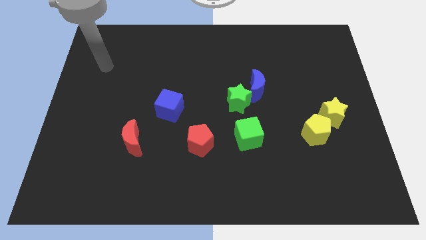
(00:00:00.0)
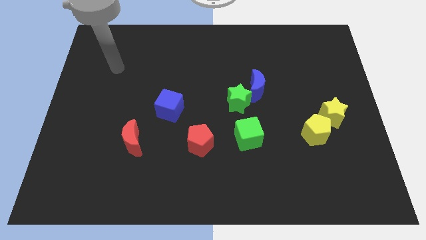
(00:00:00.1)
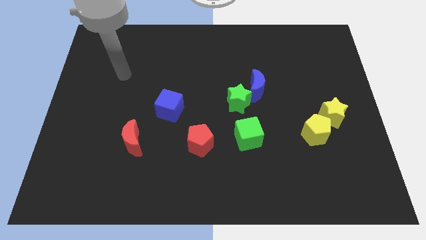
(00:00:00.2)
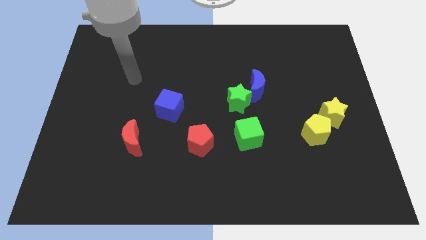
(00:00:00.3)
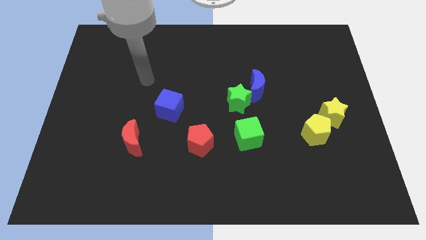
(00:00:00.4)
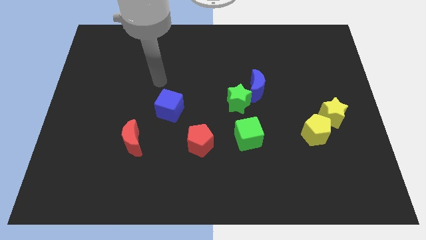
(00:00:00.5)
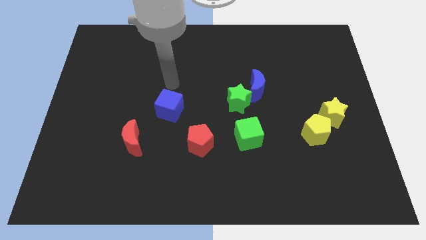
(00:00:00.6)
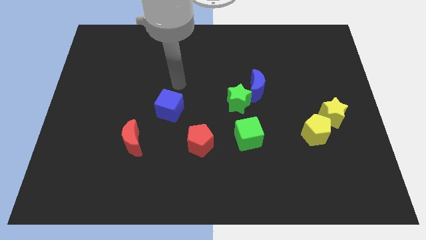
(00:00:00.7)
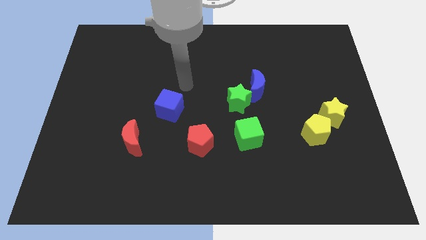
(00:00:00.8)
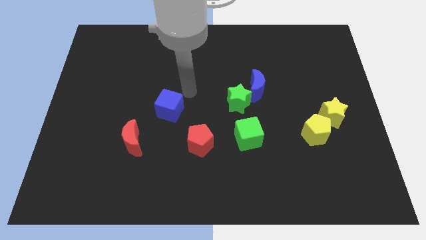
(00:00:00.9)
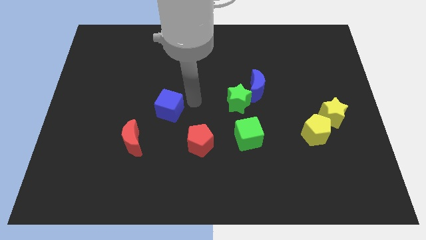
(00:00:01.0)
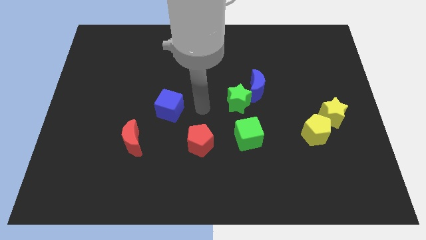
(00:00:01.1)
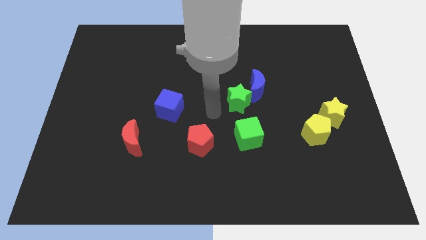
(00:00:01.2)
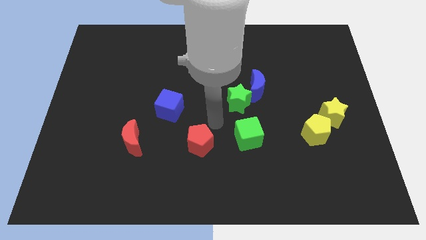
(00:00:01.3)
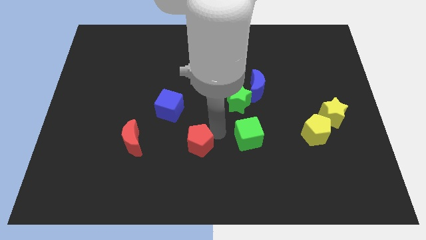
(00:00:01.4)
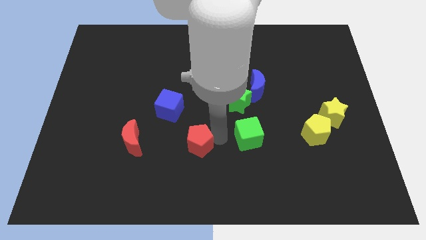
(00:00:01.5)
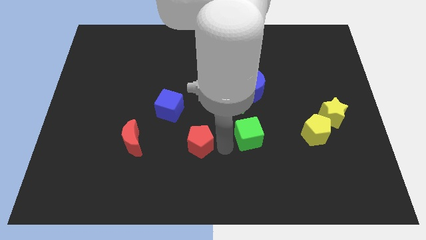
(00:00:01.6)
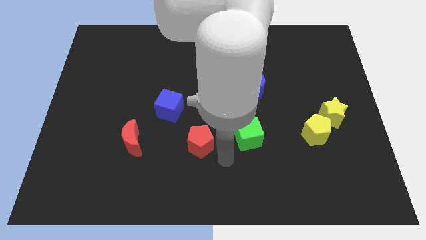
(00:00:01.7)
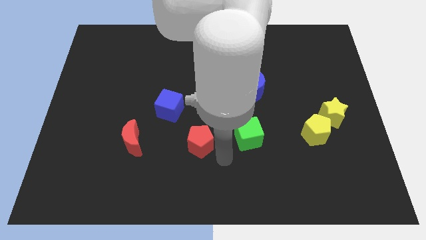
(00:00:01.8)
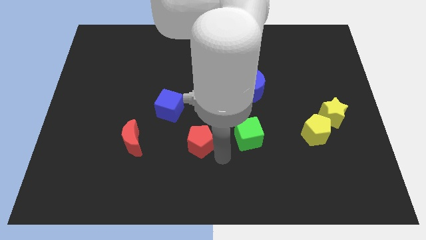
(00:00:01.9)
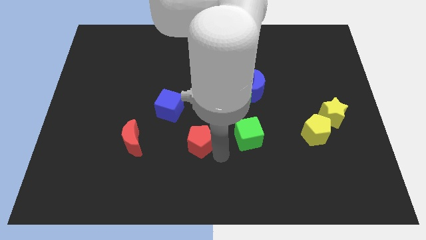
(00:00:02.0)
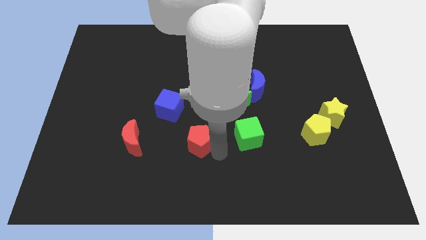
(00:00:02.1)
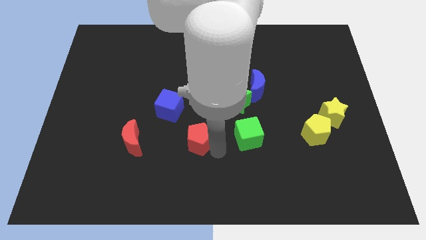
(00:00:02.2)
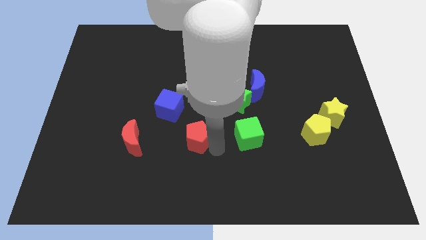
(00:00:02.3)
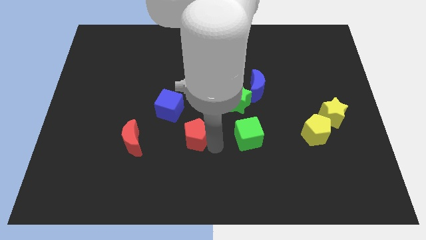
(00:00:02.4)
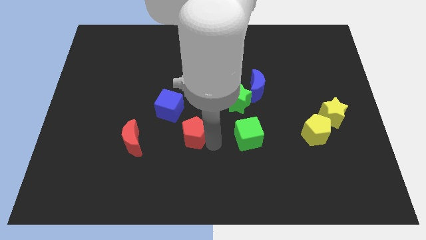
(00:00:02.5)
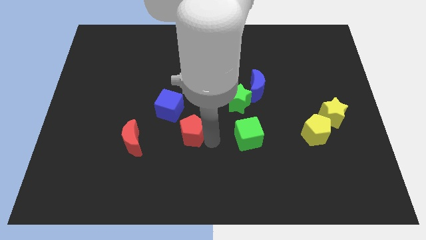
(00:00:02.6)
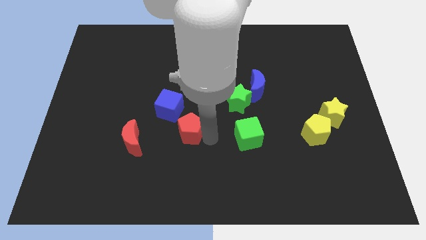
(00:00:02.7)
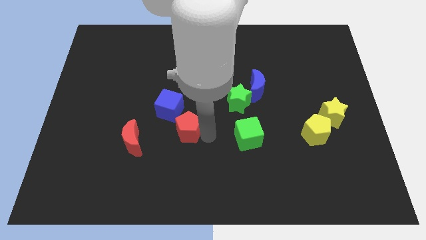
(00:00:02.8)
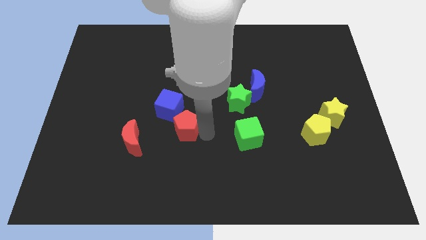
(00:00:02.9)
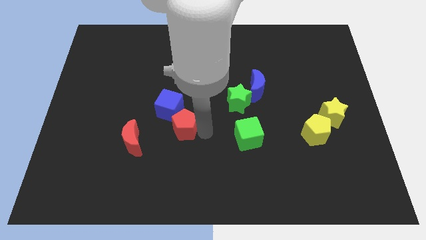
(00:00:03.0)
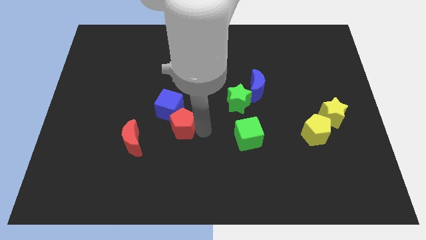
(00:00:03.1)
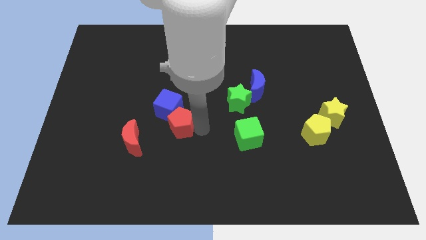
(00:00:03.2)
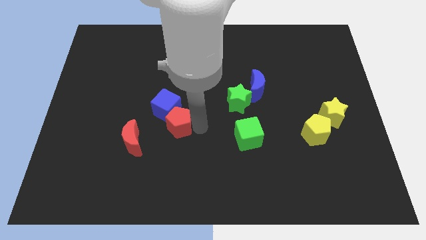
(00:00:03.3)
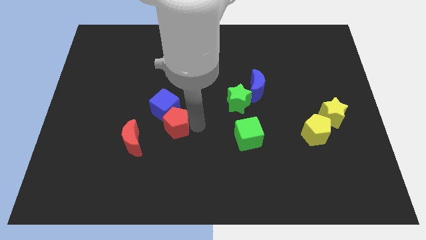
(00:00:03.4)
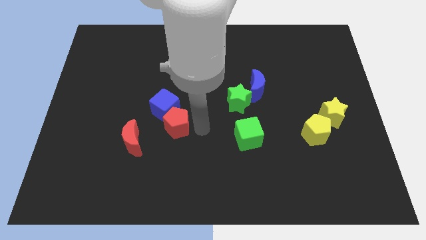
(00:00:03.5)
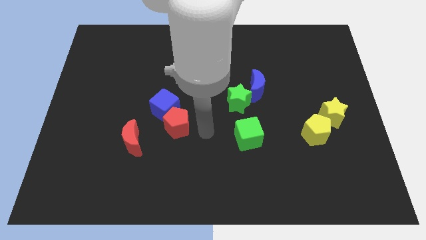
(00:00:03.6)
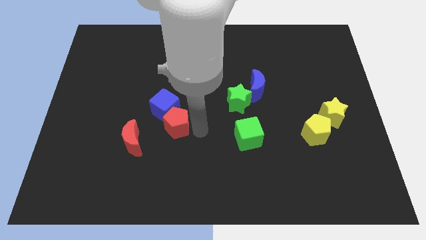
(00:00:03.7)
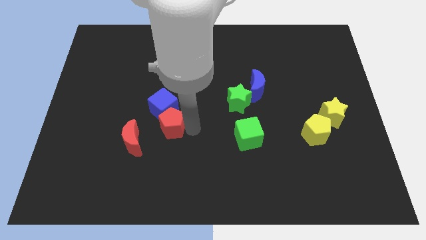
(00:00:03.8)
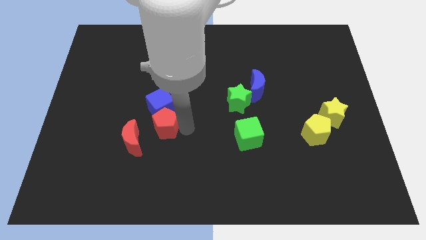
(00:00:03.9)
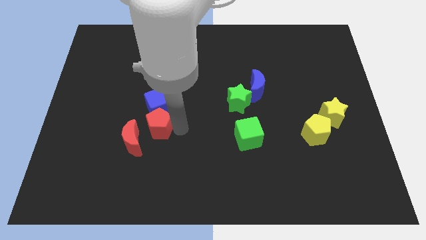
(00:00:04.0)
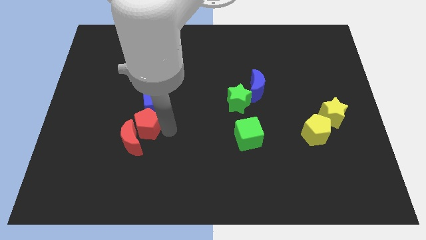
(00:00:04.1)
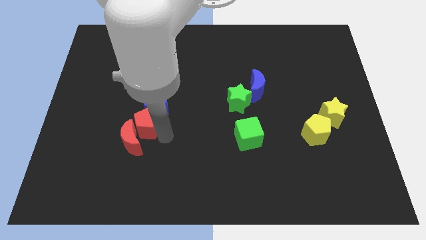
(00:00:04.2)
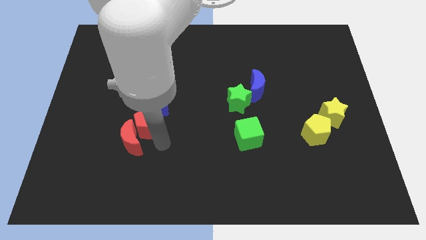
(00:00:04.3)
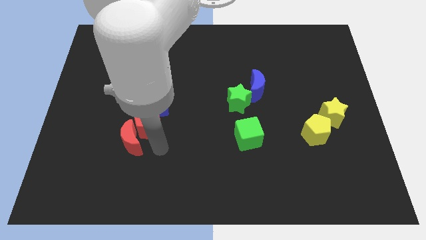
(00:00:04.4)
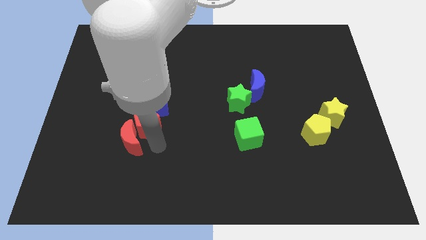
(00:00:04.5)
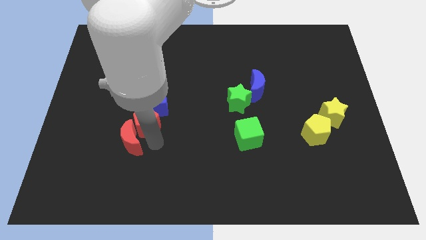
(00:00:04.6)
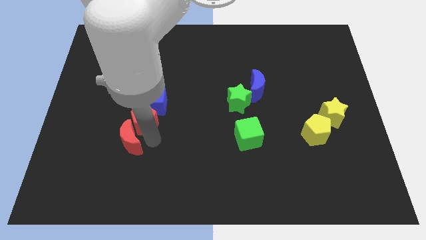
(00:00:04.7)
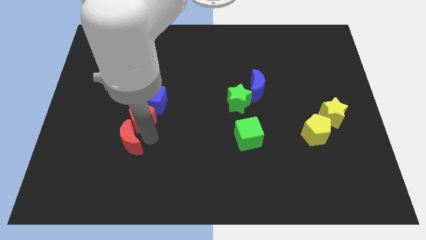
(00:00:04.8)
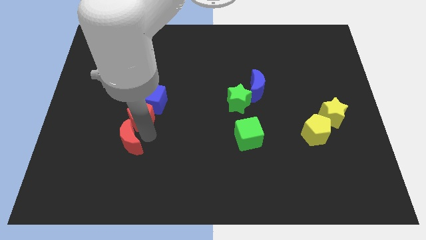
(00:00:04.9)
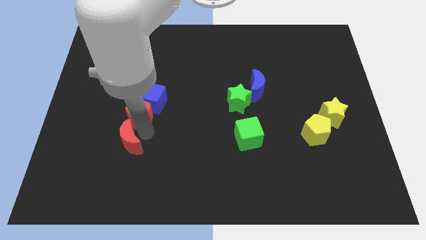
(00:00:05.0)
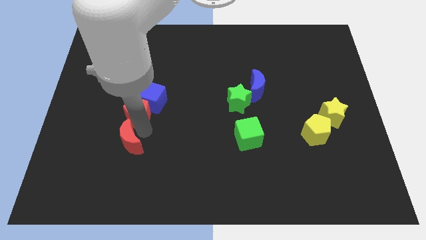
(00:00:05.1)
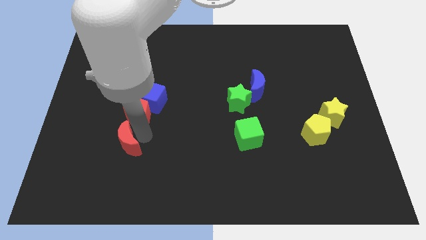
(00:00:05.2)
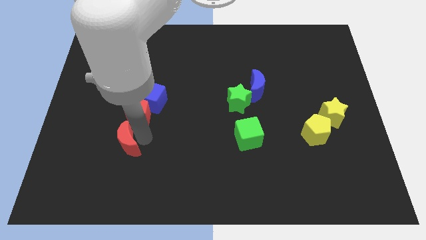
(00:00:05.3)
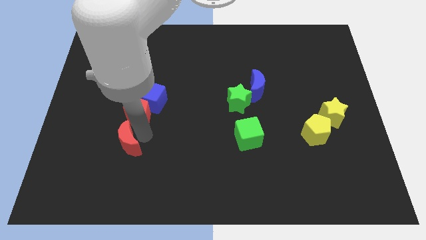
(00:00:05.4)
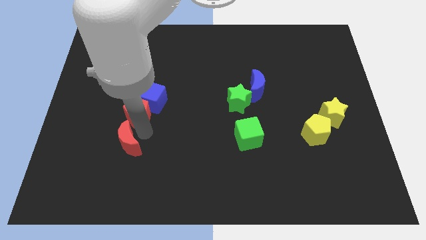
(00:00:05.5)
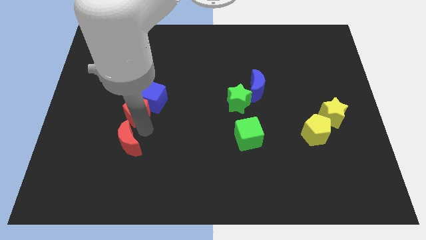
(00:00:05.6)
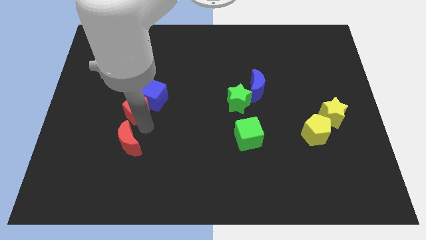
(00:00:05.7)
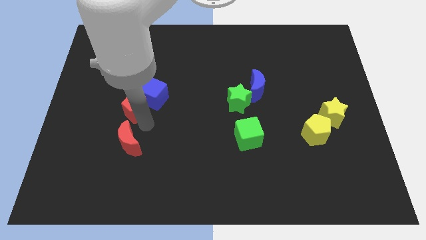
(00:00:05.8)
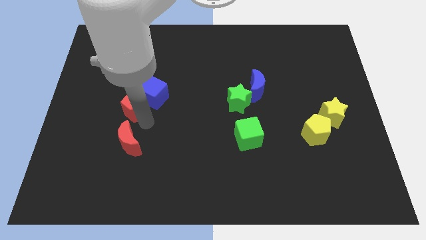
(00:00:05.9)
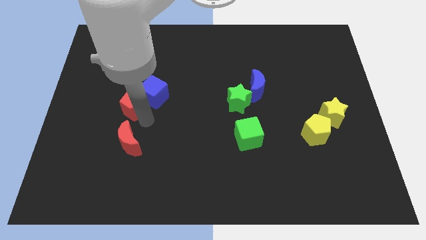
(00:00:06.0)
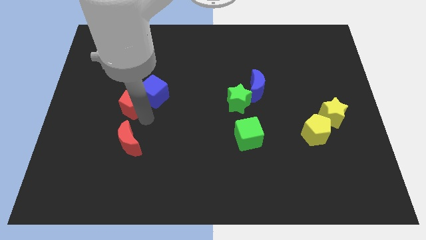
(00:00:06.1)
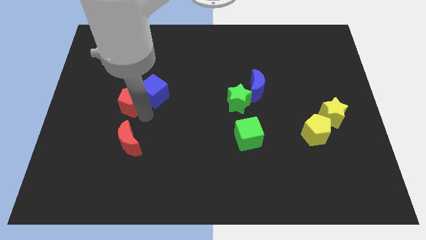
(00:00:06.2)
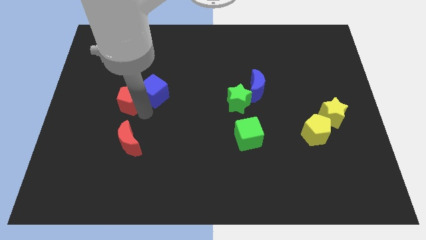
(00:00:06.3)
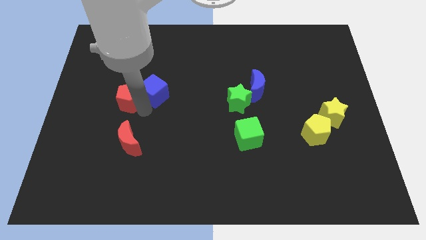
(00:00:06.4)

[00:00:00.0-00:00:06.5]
push the red pentagon up and then to the left

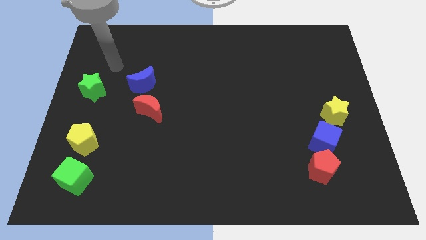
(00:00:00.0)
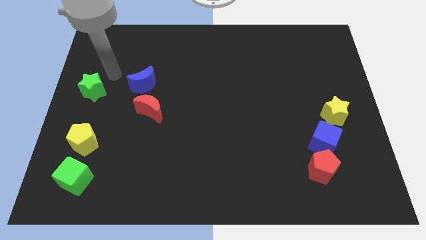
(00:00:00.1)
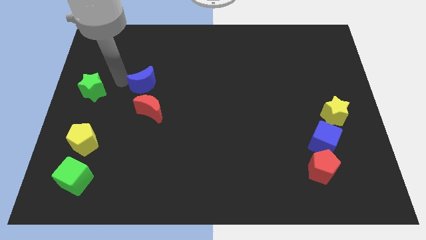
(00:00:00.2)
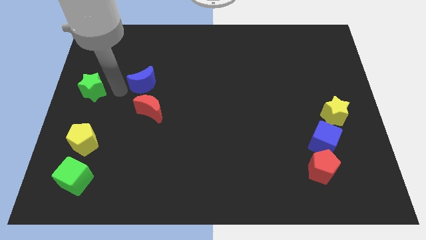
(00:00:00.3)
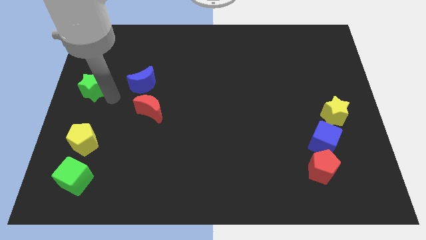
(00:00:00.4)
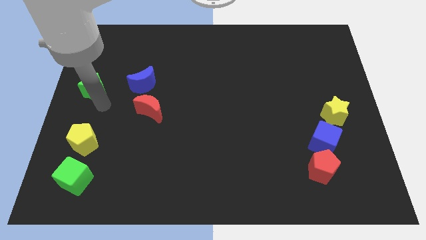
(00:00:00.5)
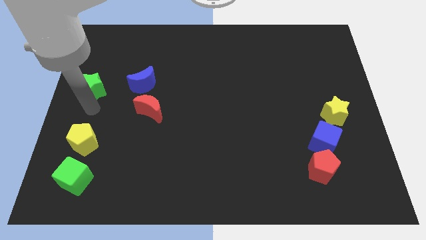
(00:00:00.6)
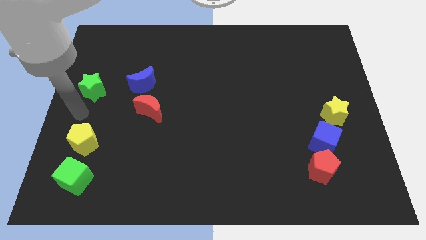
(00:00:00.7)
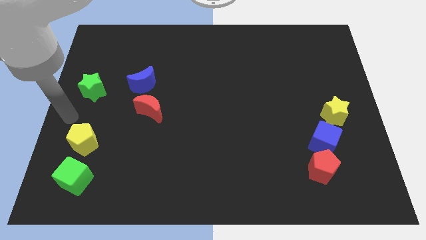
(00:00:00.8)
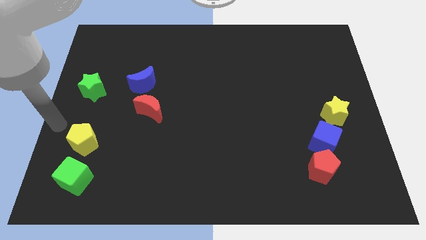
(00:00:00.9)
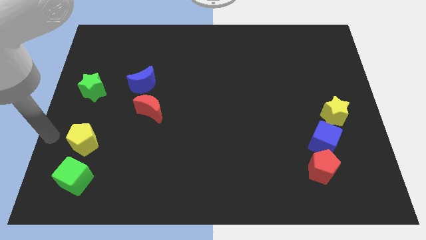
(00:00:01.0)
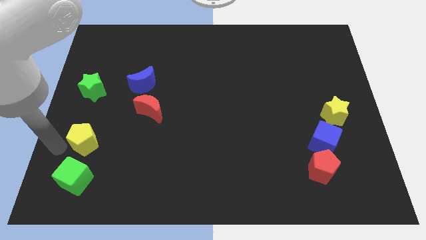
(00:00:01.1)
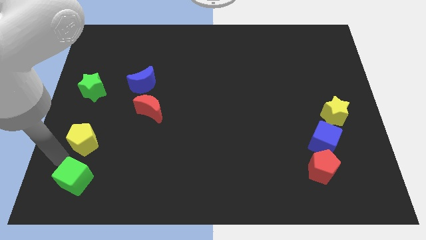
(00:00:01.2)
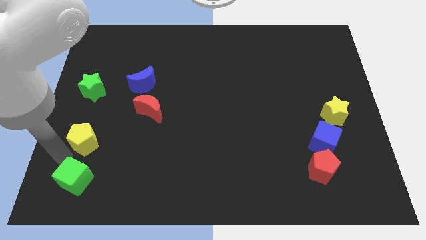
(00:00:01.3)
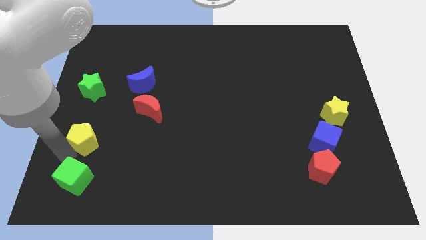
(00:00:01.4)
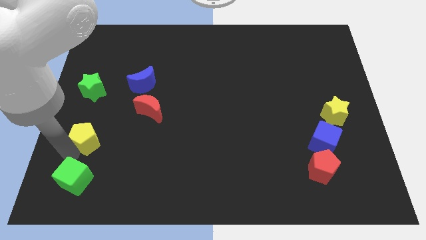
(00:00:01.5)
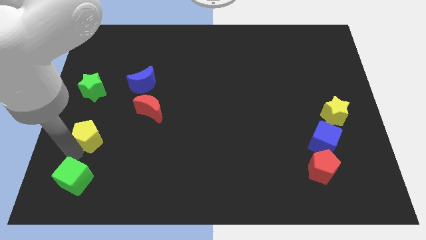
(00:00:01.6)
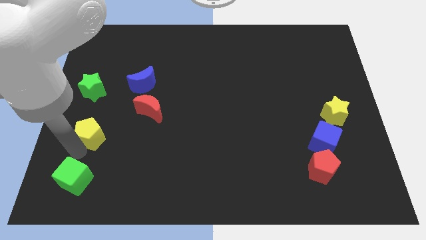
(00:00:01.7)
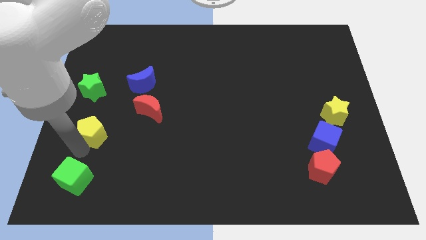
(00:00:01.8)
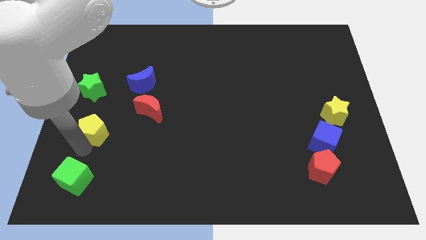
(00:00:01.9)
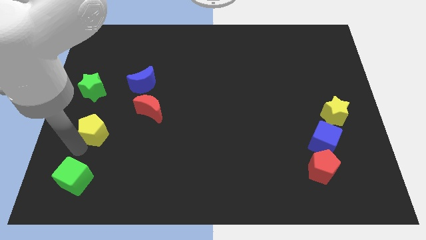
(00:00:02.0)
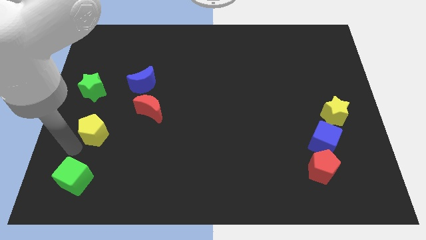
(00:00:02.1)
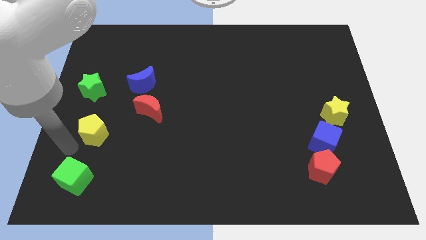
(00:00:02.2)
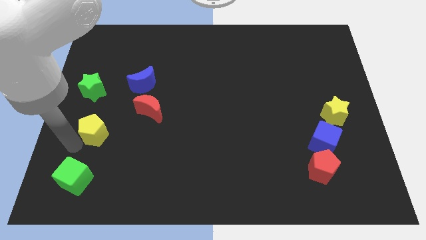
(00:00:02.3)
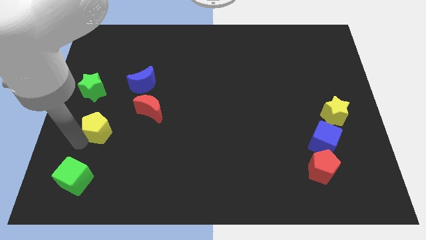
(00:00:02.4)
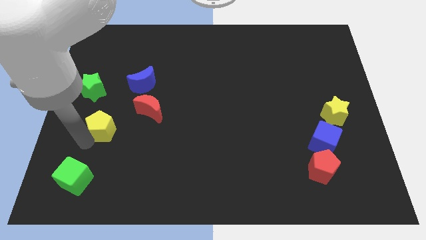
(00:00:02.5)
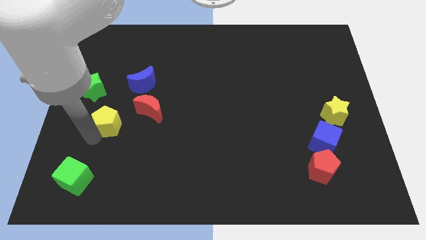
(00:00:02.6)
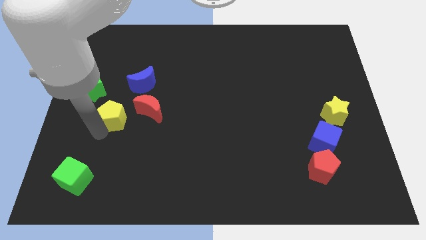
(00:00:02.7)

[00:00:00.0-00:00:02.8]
slightly slide the yellow pentagon up and right
